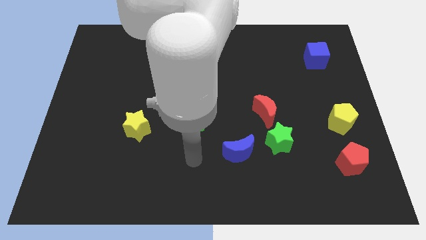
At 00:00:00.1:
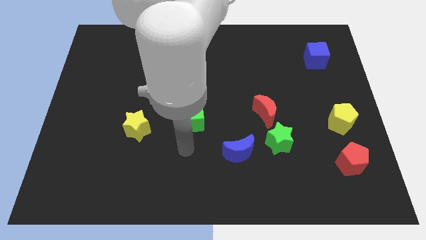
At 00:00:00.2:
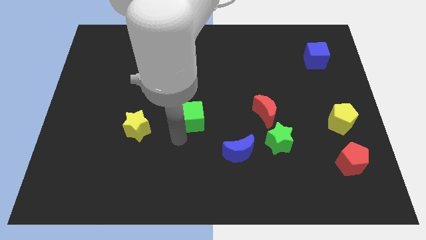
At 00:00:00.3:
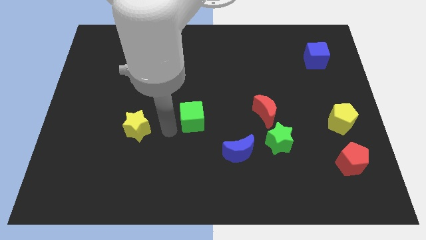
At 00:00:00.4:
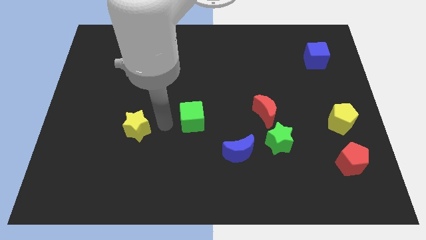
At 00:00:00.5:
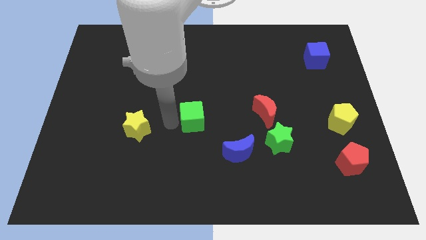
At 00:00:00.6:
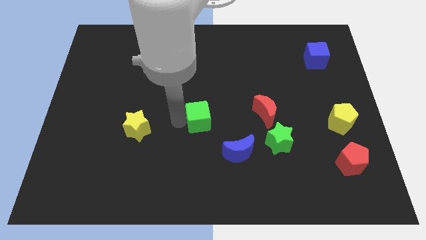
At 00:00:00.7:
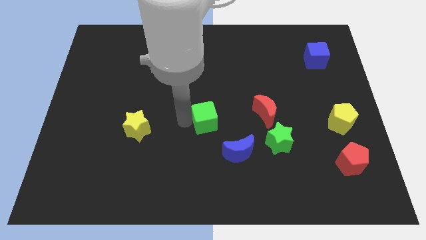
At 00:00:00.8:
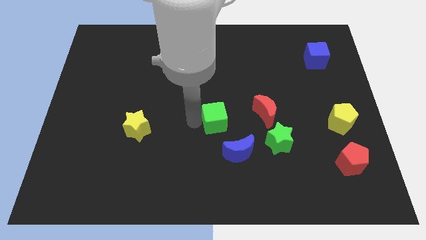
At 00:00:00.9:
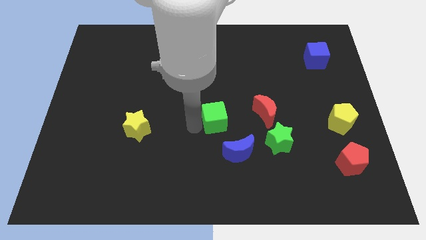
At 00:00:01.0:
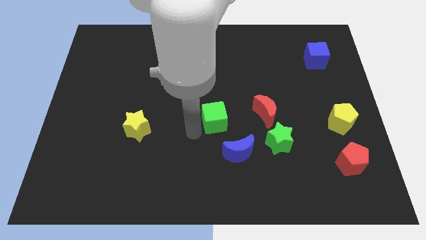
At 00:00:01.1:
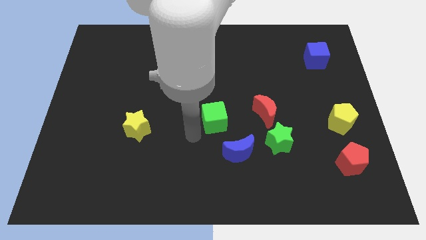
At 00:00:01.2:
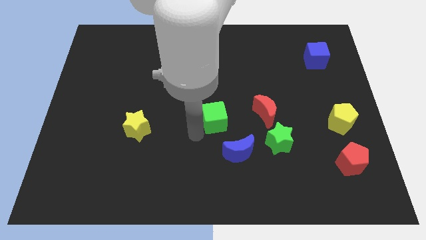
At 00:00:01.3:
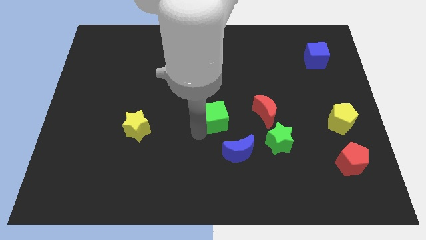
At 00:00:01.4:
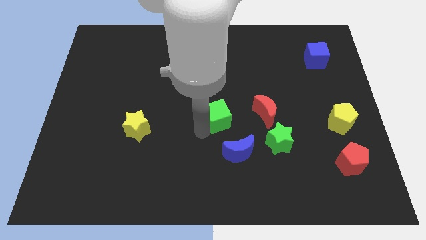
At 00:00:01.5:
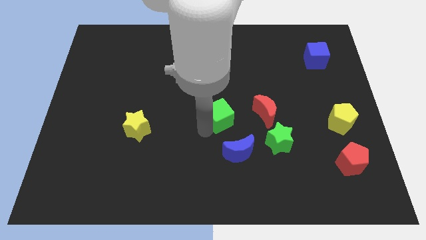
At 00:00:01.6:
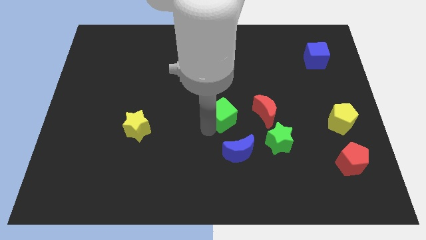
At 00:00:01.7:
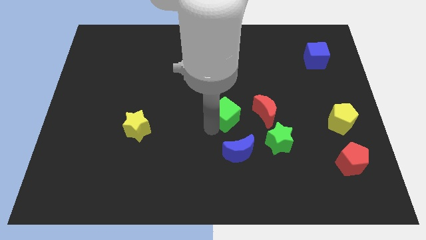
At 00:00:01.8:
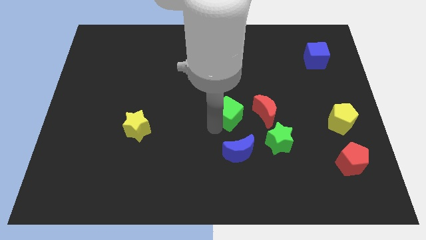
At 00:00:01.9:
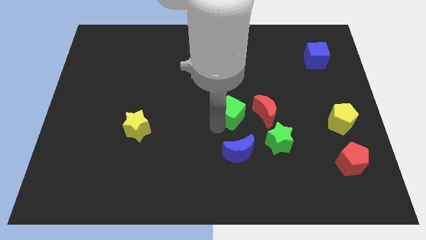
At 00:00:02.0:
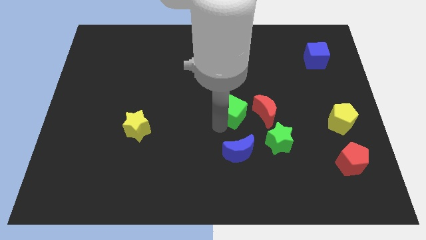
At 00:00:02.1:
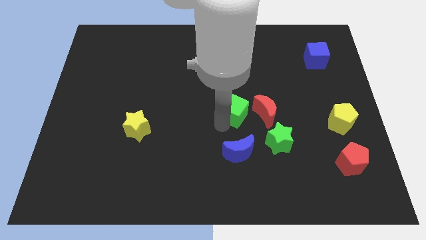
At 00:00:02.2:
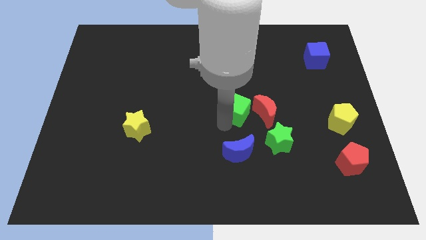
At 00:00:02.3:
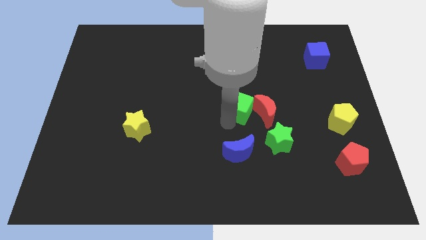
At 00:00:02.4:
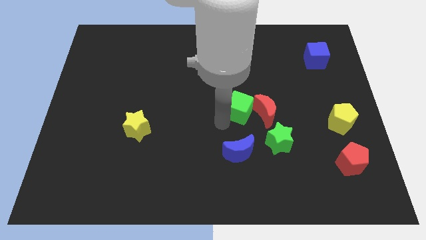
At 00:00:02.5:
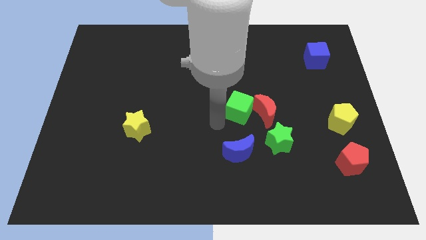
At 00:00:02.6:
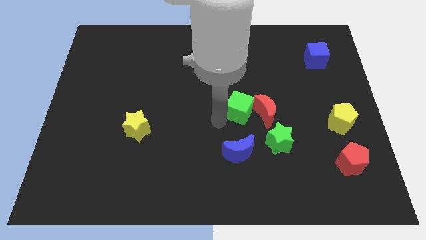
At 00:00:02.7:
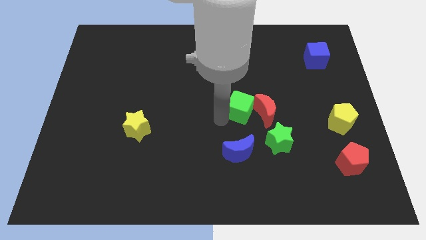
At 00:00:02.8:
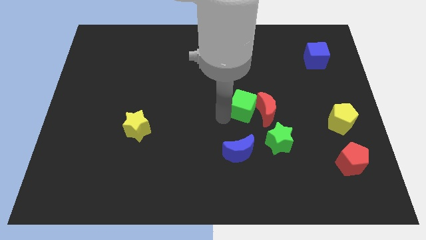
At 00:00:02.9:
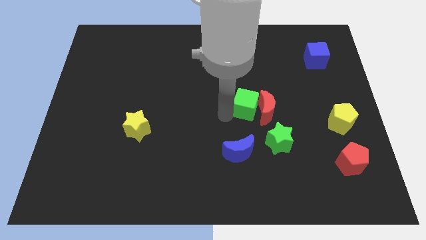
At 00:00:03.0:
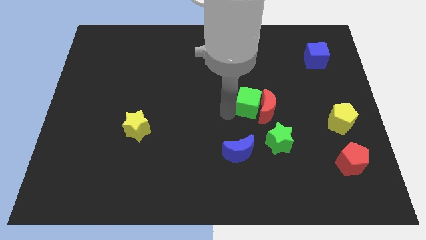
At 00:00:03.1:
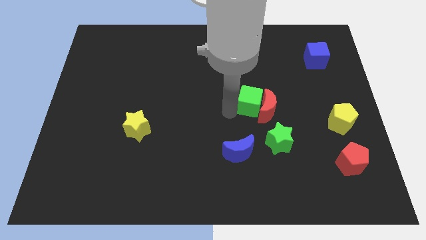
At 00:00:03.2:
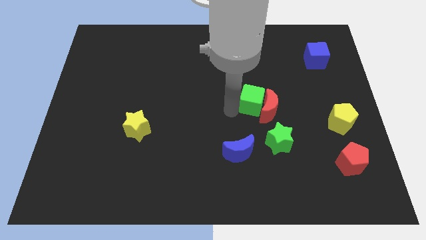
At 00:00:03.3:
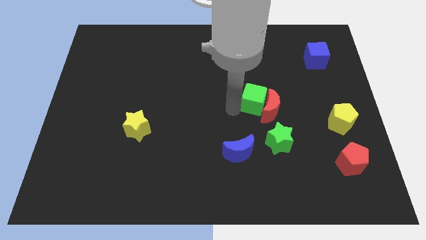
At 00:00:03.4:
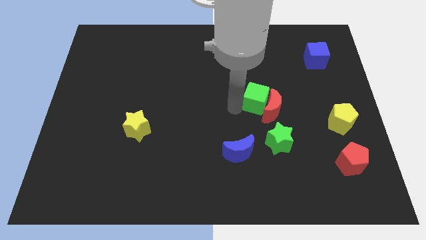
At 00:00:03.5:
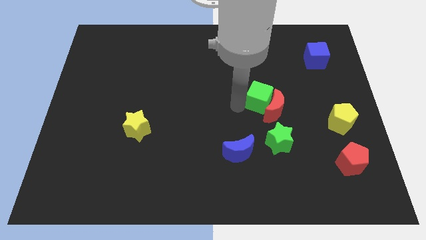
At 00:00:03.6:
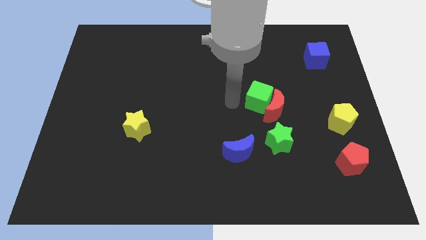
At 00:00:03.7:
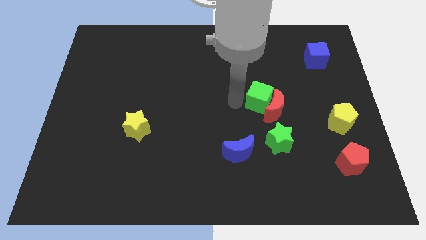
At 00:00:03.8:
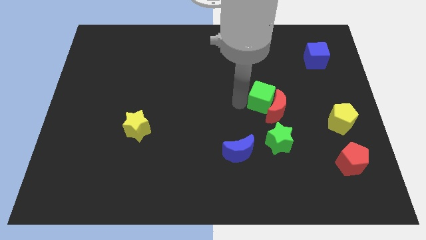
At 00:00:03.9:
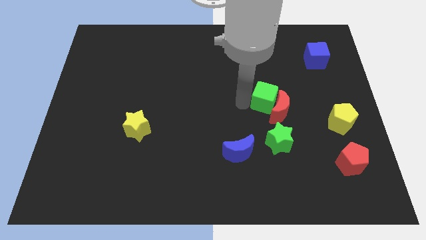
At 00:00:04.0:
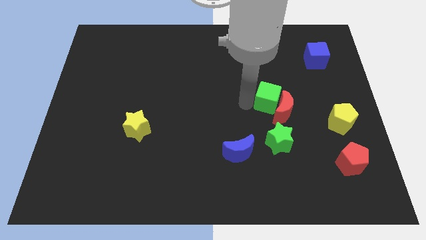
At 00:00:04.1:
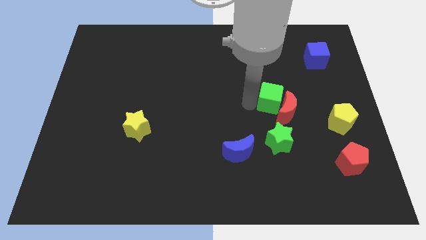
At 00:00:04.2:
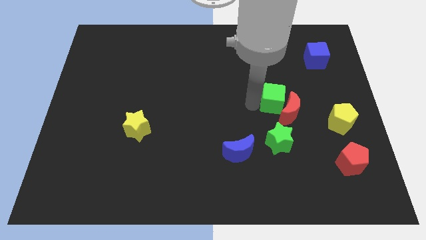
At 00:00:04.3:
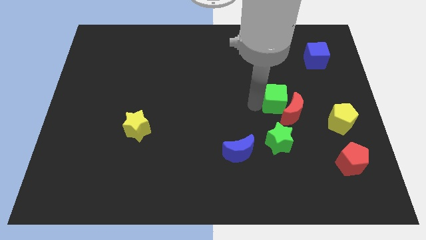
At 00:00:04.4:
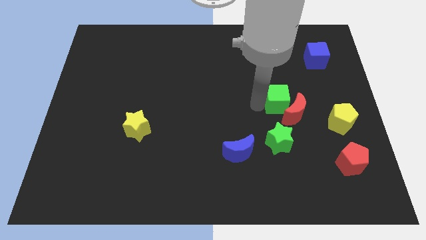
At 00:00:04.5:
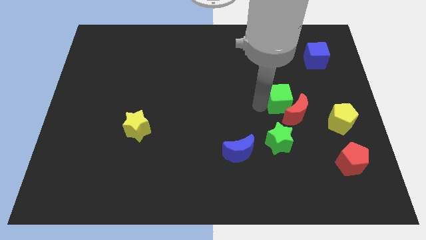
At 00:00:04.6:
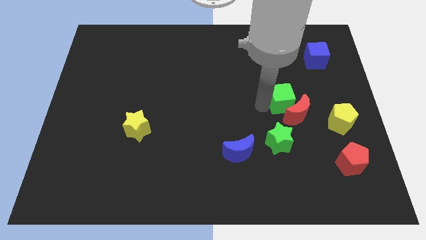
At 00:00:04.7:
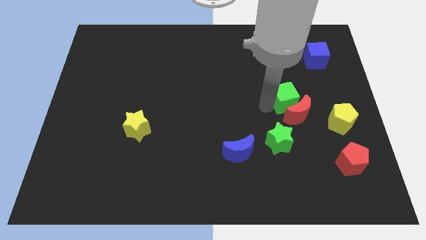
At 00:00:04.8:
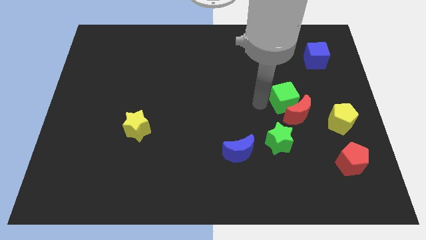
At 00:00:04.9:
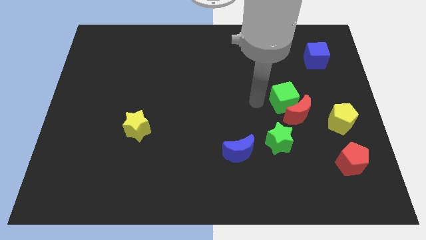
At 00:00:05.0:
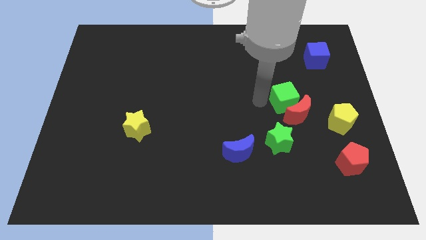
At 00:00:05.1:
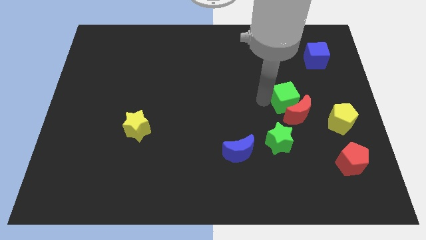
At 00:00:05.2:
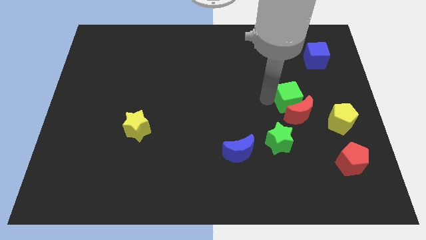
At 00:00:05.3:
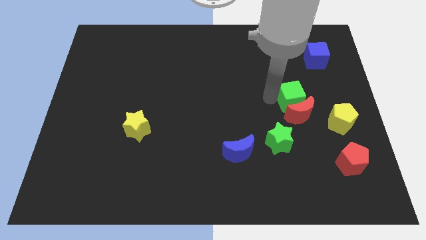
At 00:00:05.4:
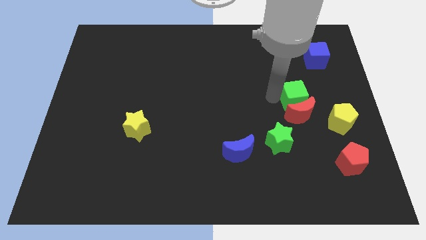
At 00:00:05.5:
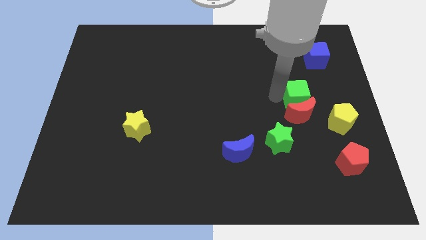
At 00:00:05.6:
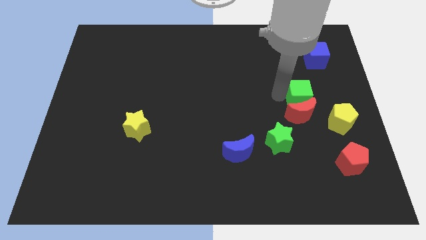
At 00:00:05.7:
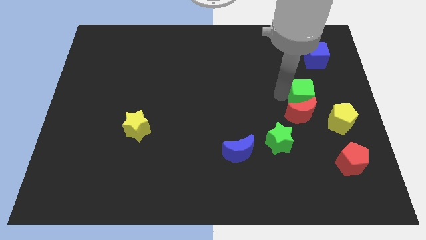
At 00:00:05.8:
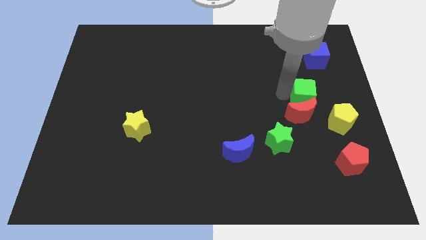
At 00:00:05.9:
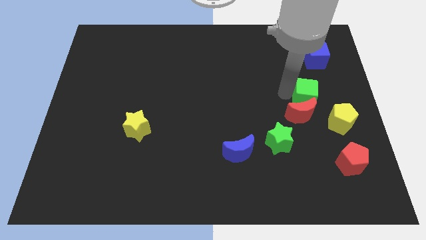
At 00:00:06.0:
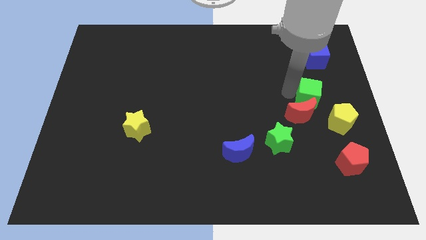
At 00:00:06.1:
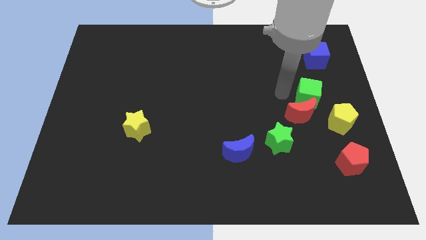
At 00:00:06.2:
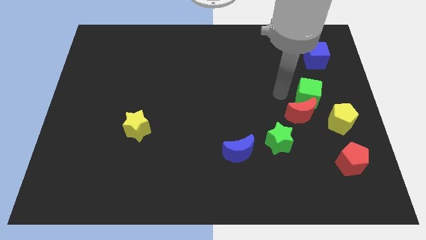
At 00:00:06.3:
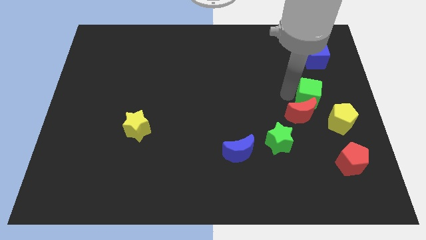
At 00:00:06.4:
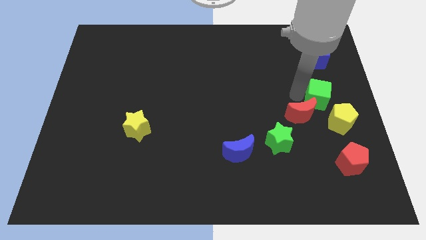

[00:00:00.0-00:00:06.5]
slide the green cube to the right side of the board
